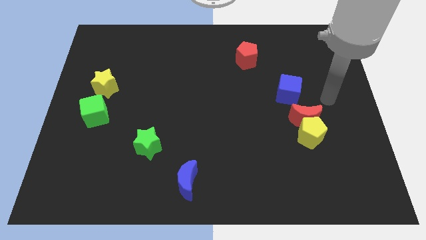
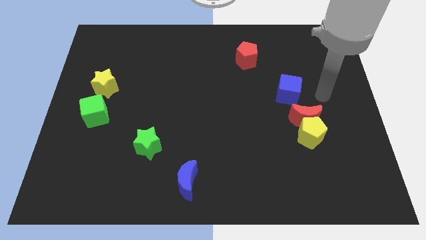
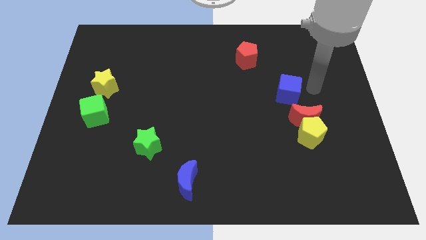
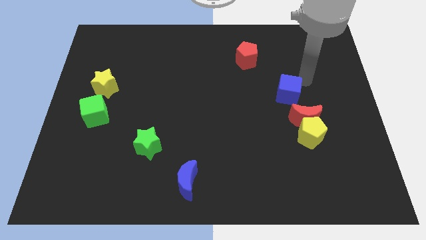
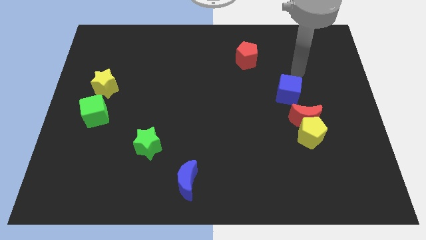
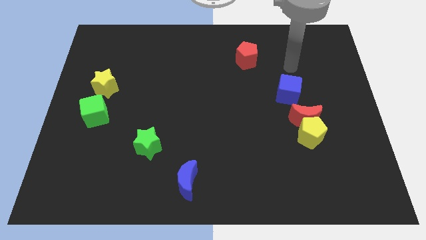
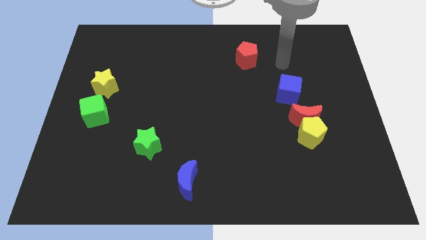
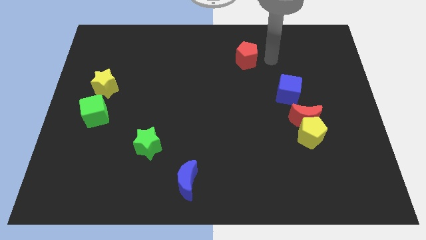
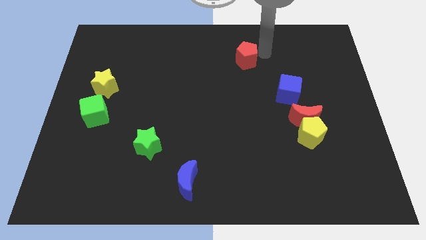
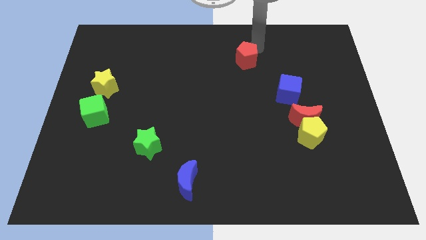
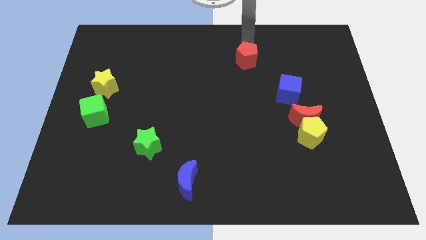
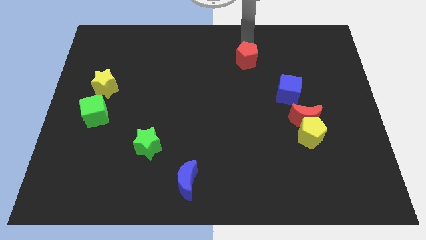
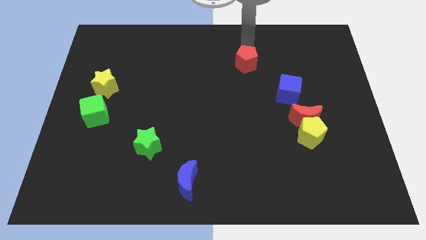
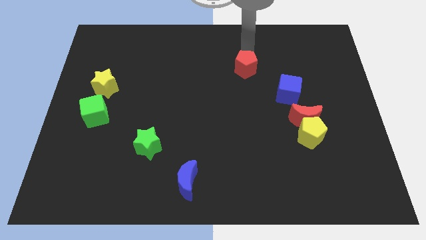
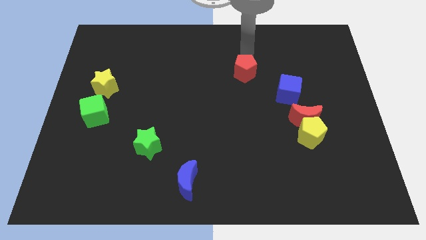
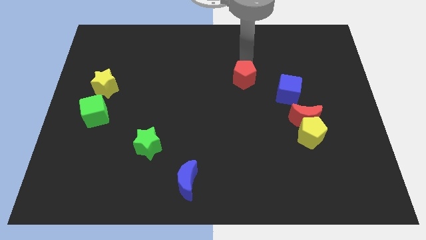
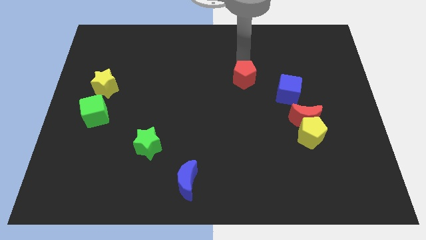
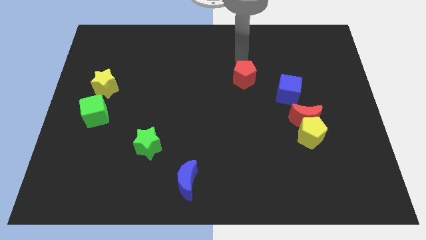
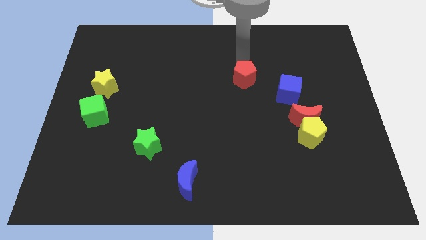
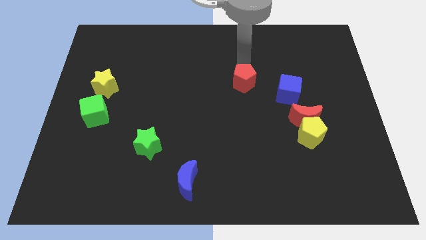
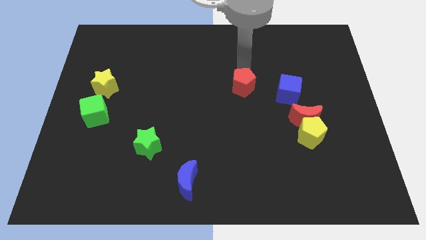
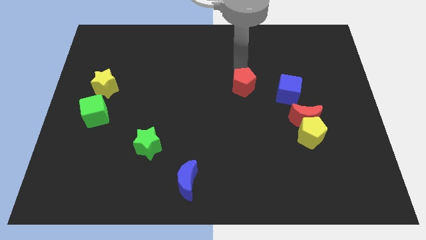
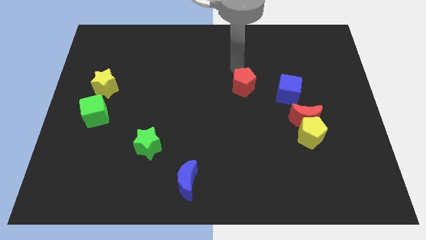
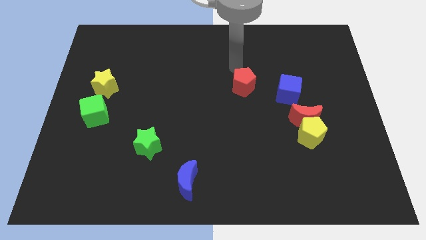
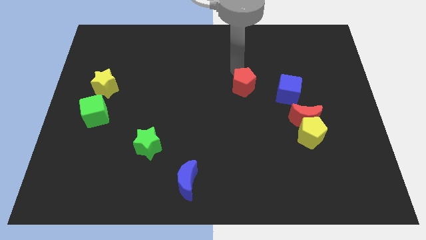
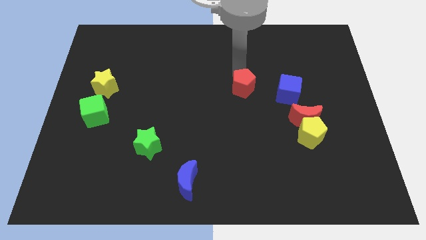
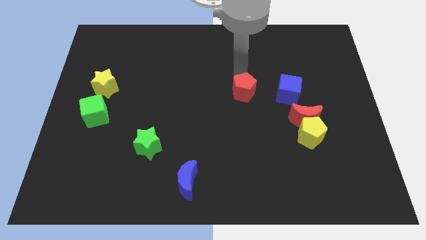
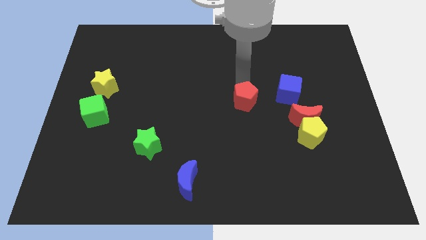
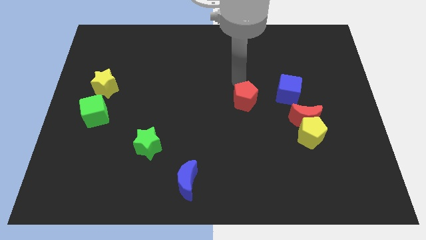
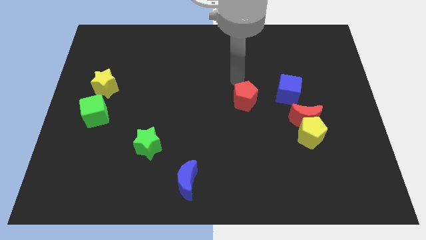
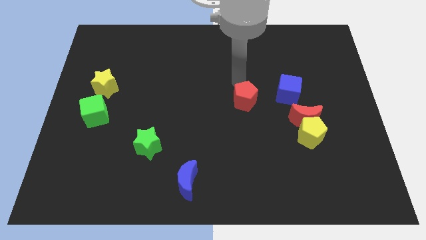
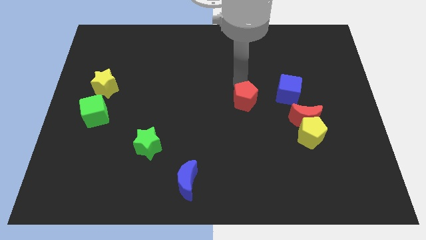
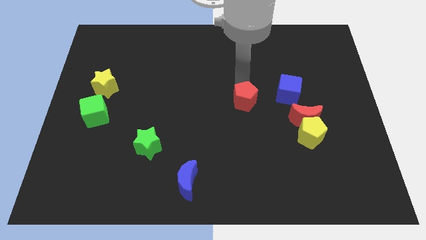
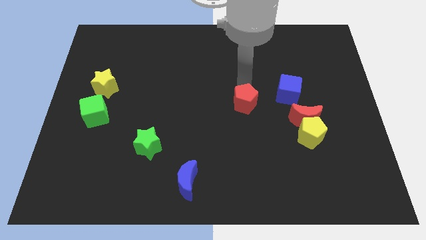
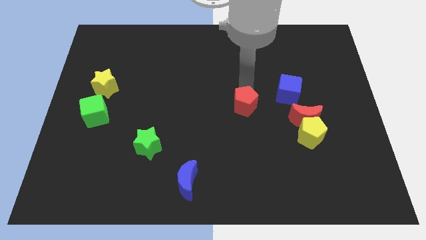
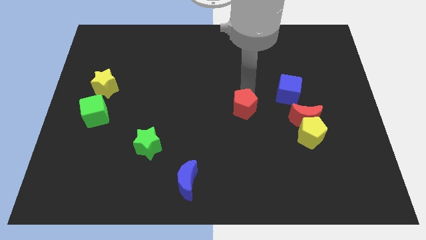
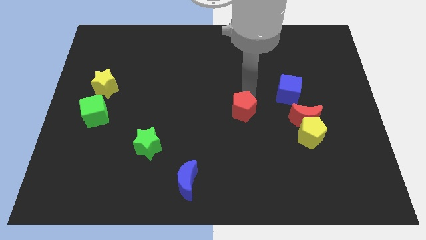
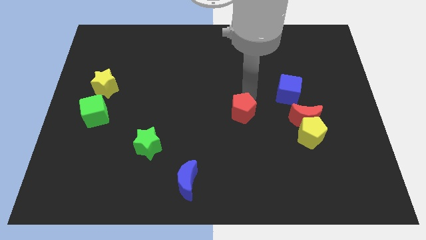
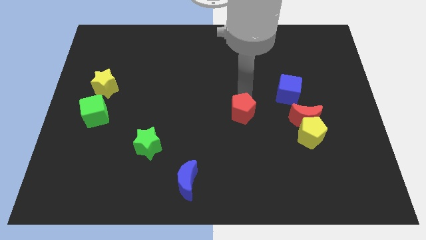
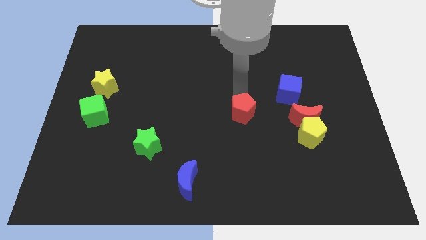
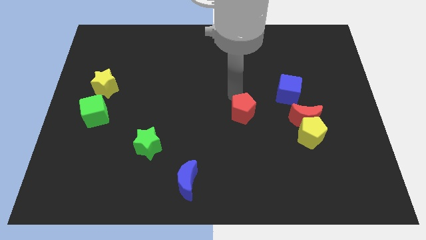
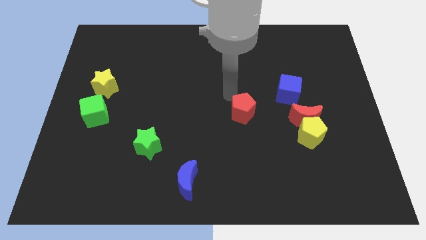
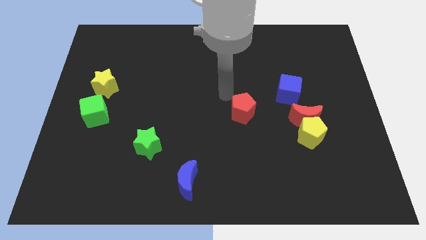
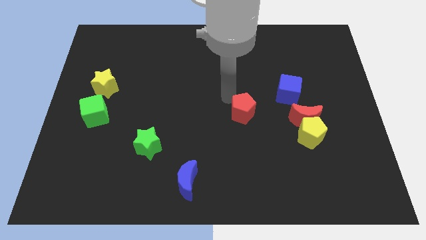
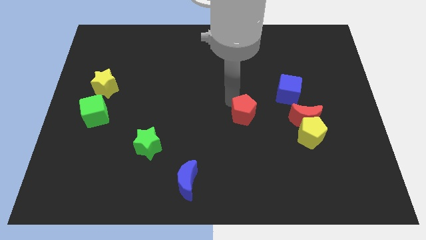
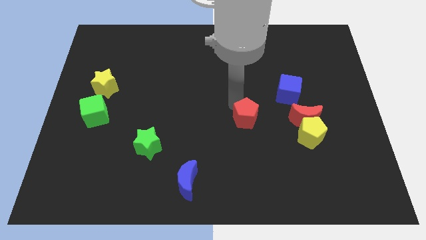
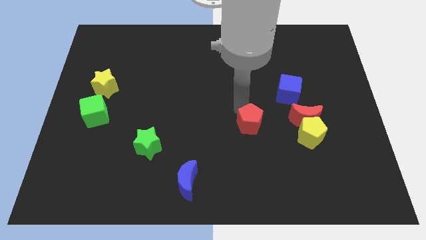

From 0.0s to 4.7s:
slide the red pentagon down

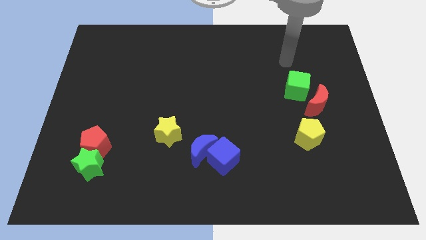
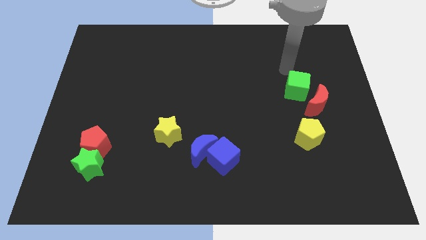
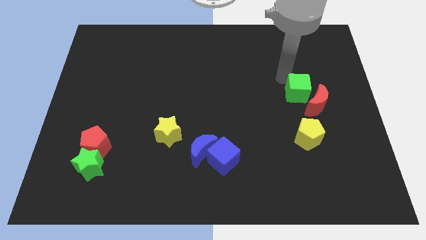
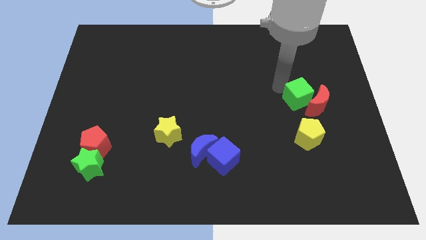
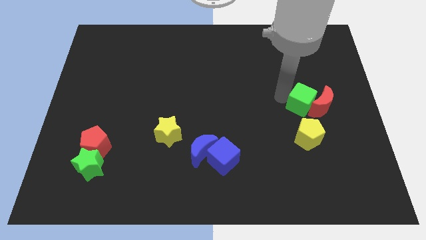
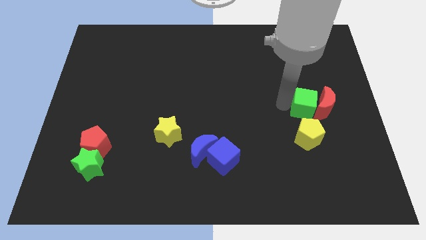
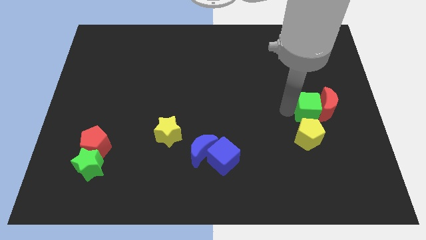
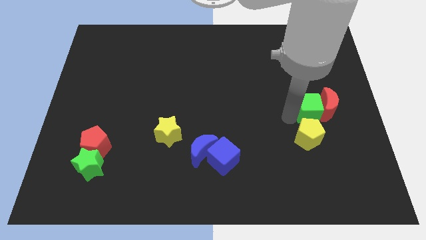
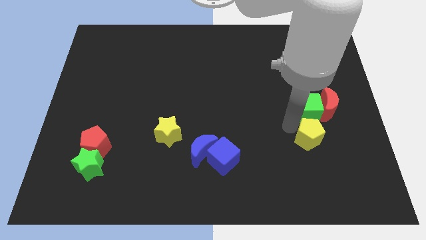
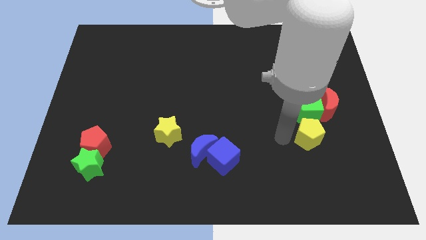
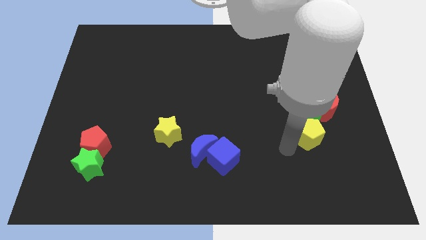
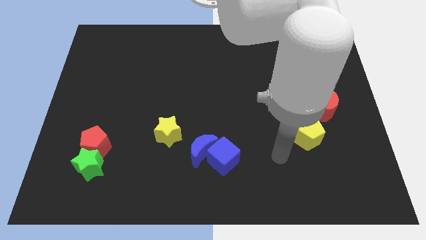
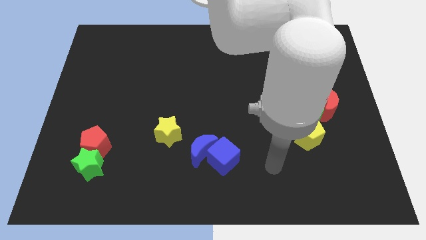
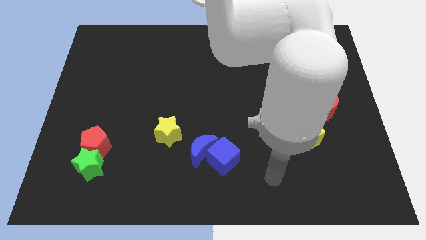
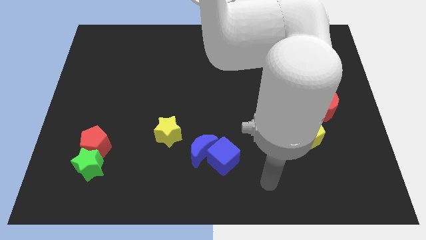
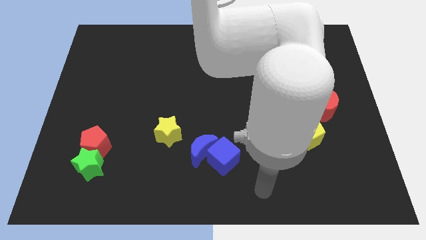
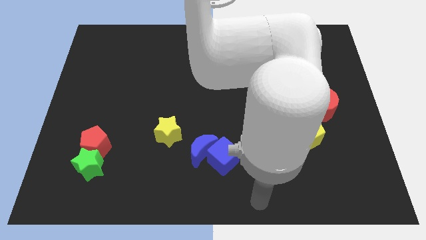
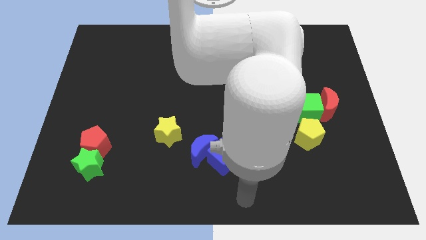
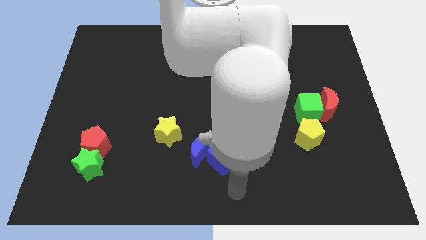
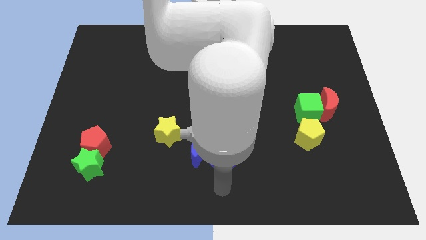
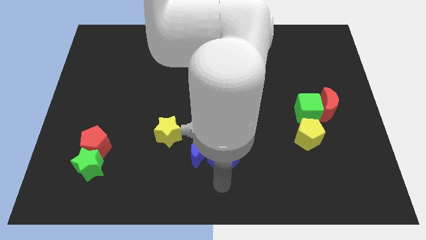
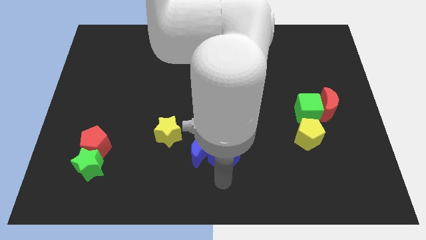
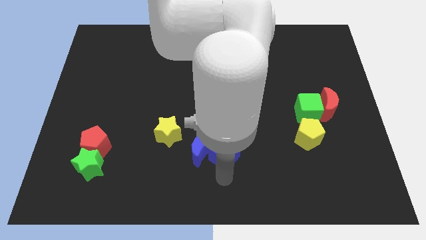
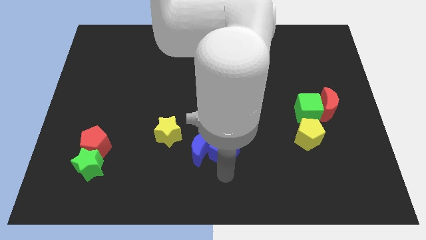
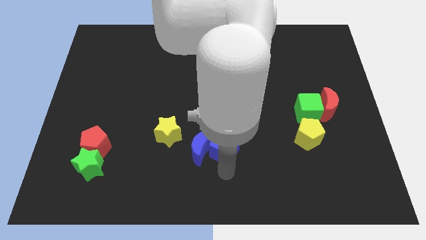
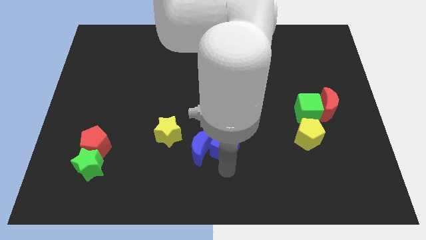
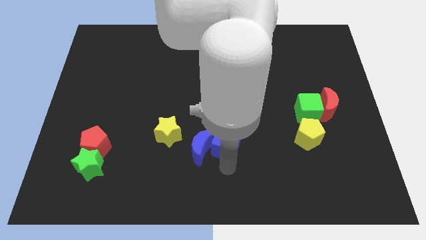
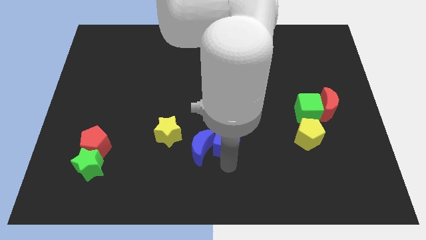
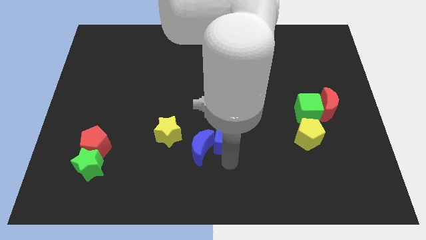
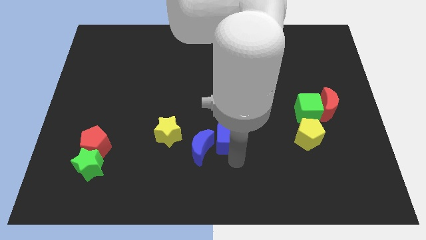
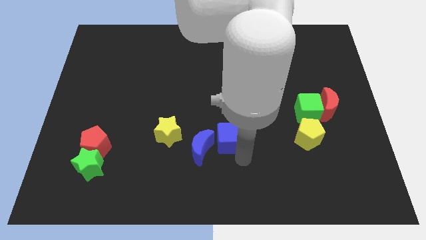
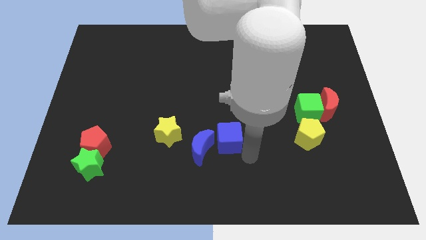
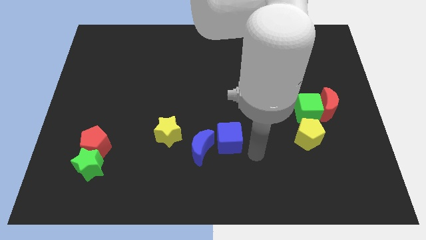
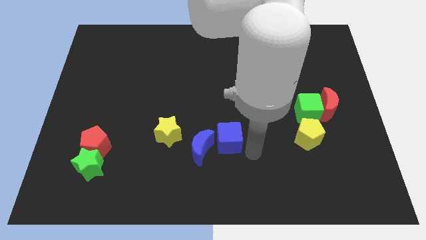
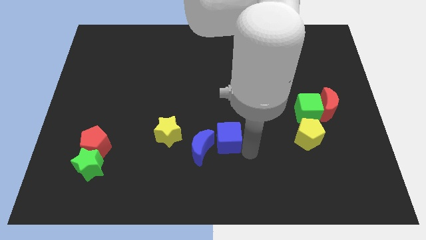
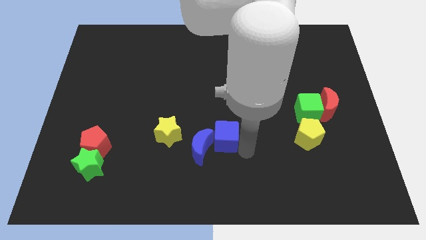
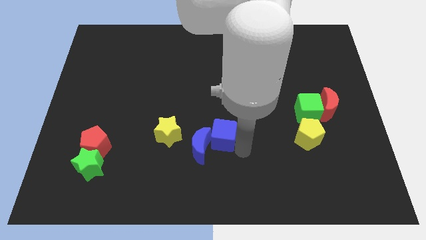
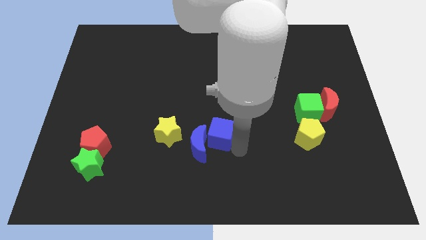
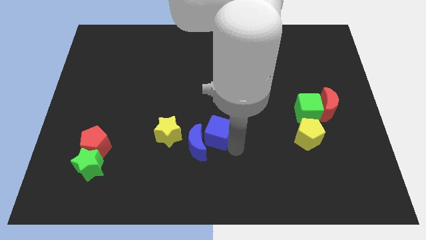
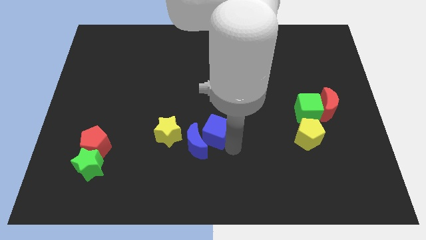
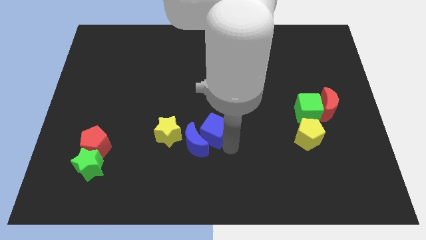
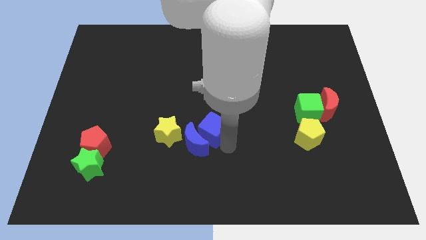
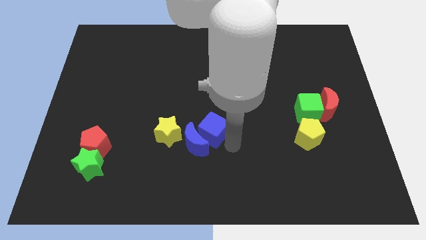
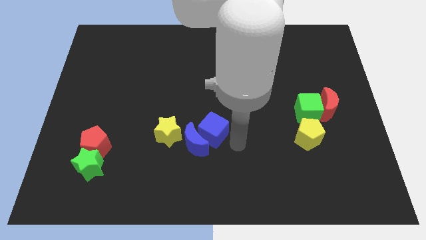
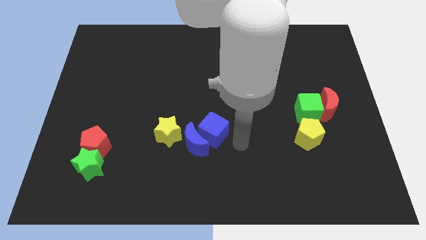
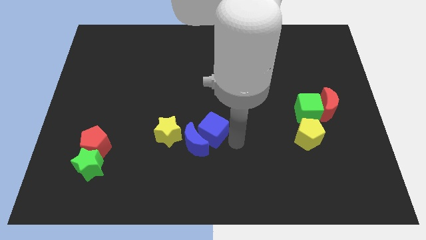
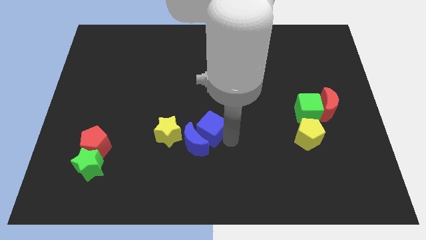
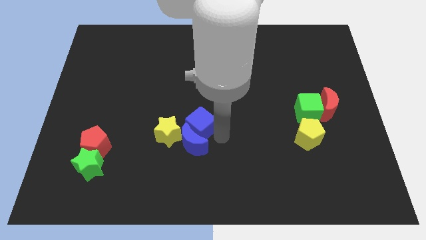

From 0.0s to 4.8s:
slightly slide the blue cube upwards and then to the left
